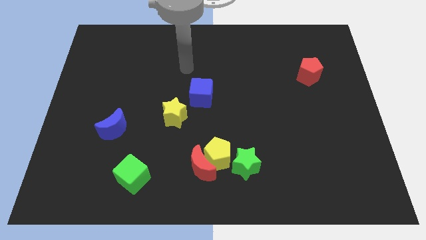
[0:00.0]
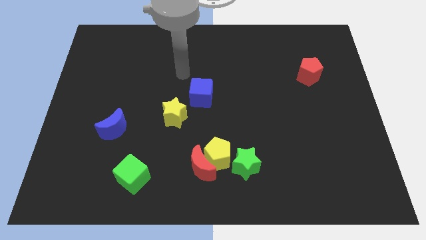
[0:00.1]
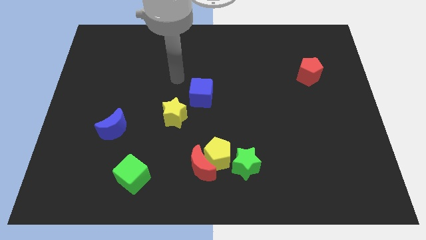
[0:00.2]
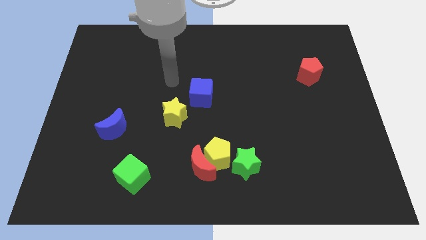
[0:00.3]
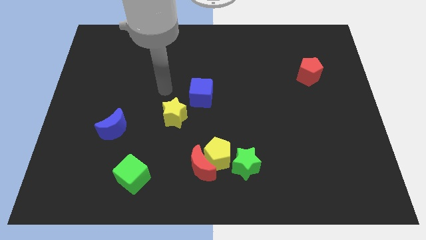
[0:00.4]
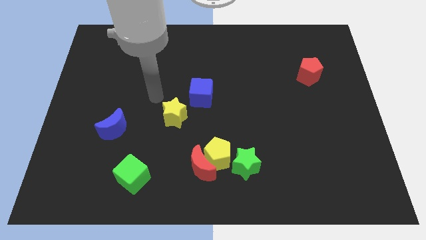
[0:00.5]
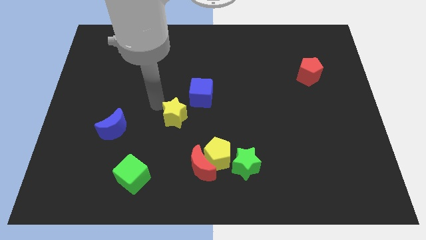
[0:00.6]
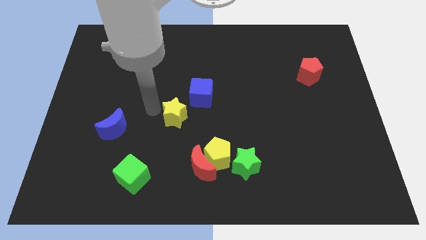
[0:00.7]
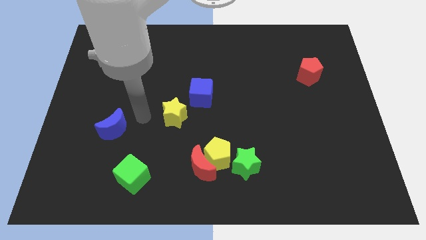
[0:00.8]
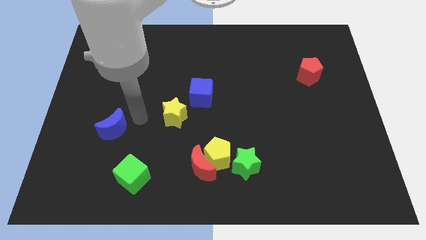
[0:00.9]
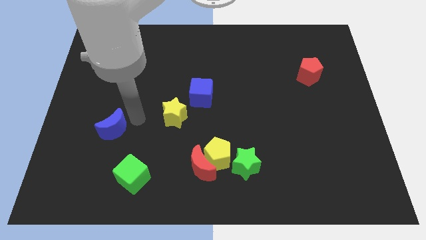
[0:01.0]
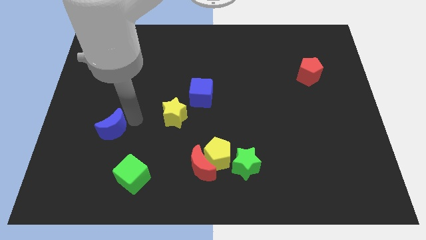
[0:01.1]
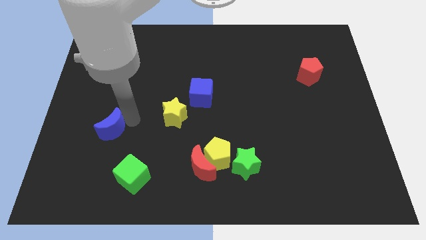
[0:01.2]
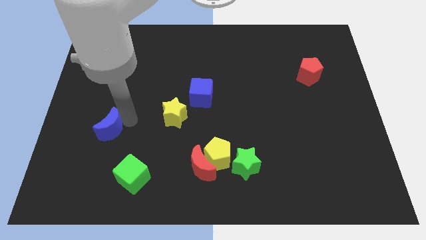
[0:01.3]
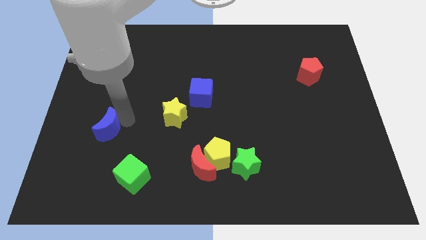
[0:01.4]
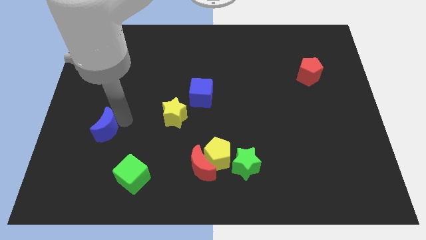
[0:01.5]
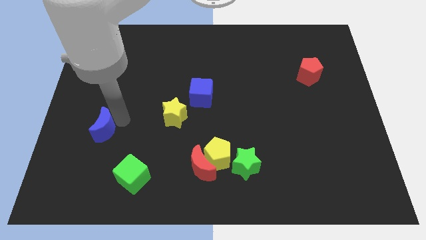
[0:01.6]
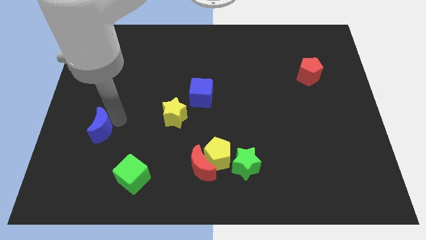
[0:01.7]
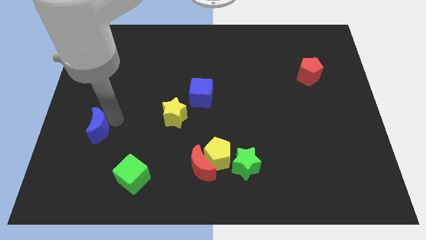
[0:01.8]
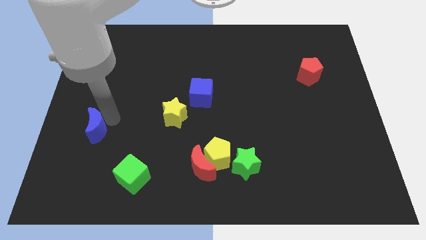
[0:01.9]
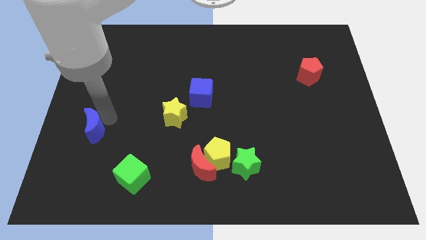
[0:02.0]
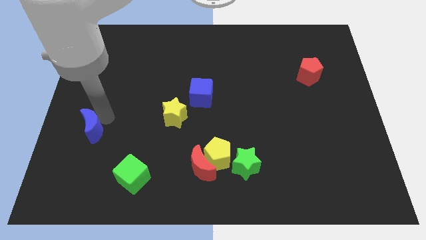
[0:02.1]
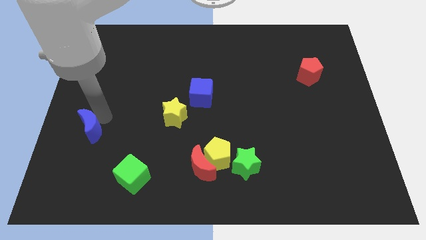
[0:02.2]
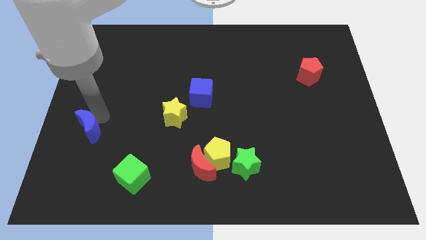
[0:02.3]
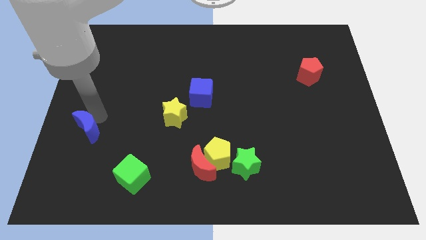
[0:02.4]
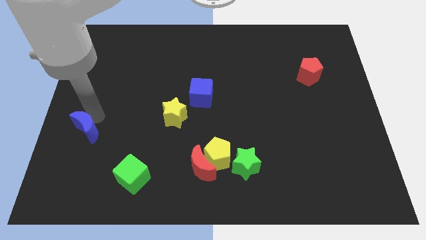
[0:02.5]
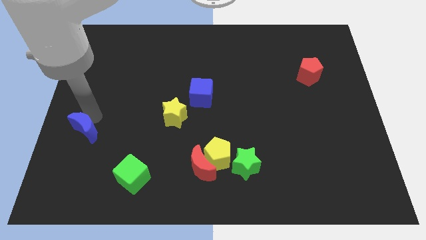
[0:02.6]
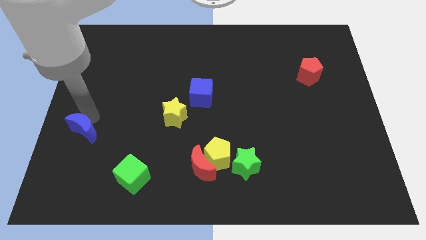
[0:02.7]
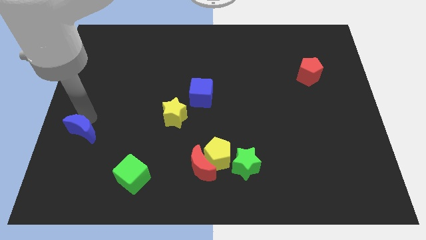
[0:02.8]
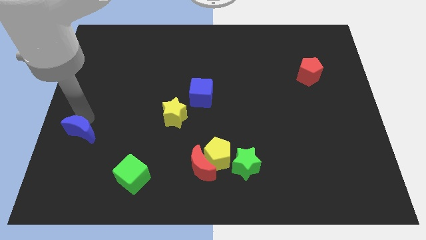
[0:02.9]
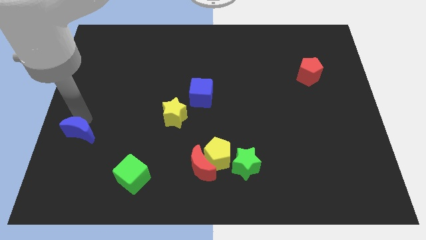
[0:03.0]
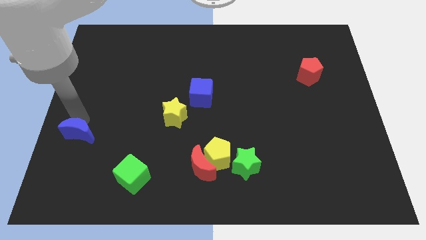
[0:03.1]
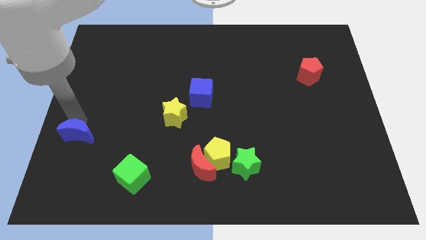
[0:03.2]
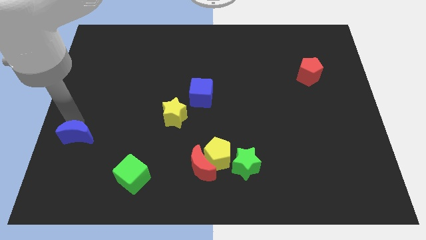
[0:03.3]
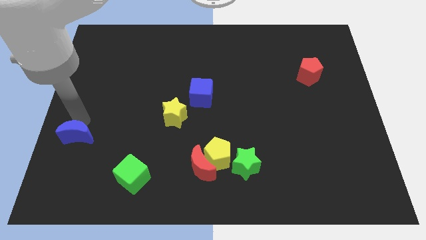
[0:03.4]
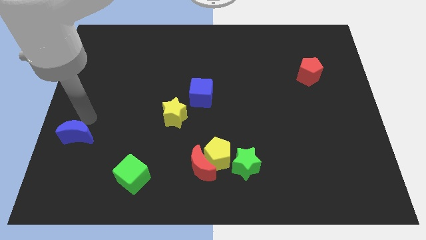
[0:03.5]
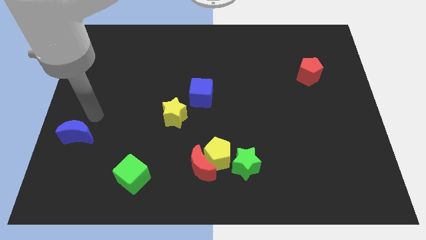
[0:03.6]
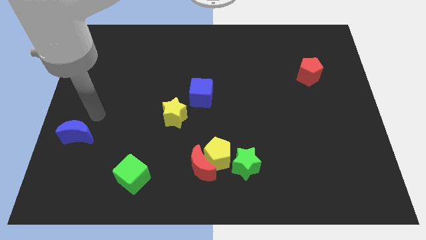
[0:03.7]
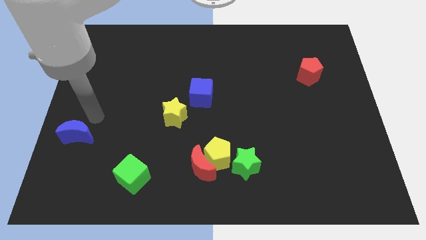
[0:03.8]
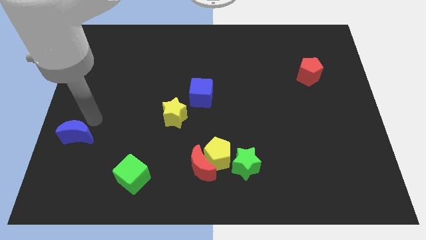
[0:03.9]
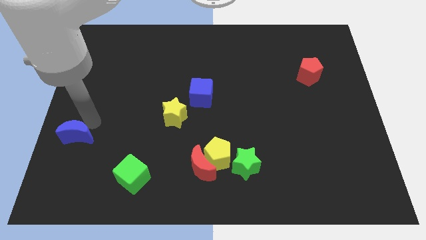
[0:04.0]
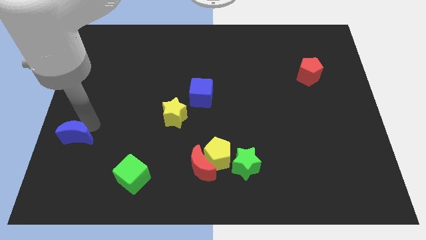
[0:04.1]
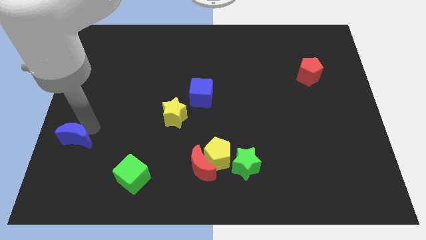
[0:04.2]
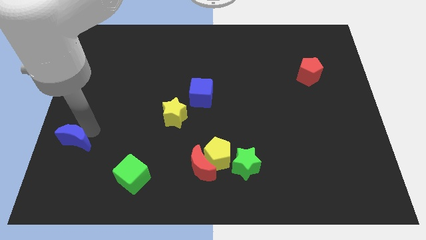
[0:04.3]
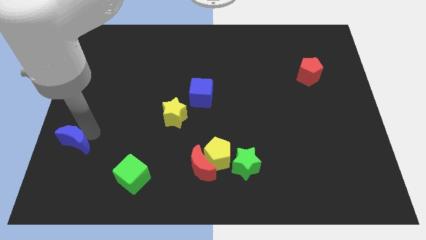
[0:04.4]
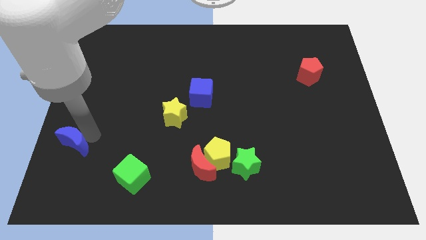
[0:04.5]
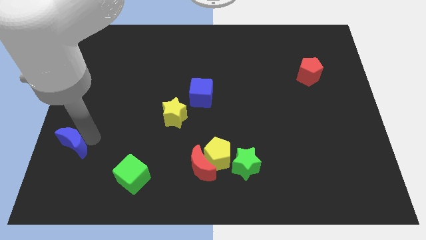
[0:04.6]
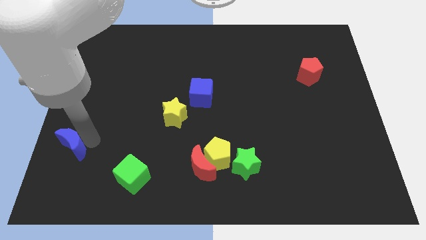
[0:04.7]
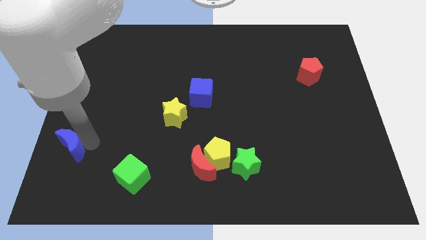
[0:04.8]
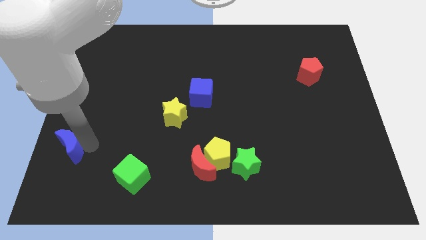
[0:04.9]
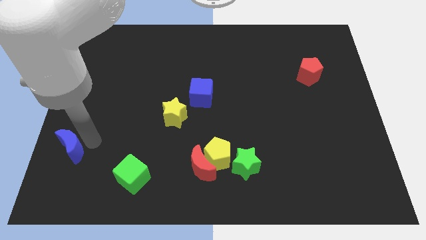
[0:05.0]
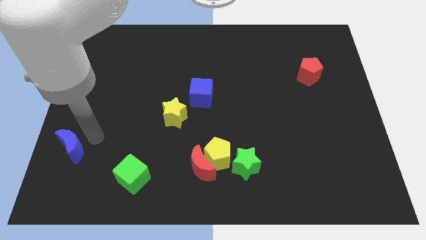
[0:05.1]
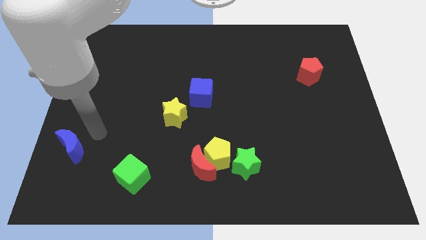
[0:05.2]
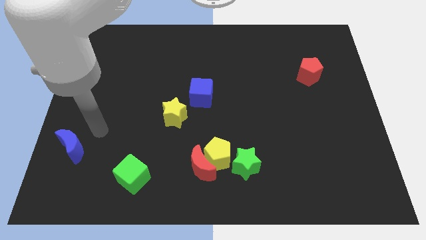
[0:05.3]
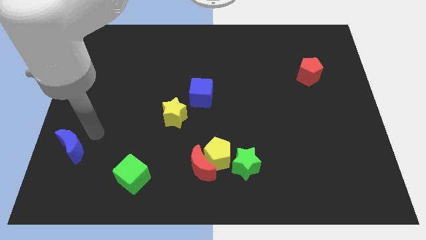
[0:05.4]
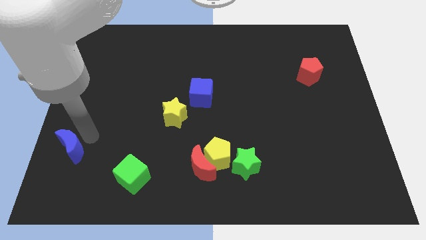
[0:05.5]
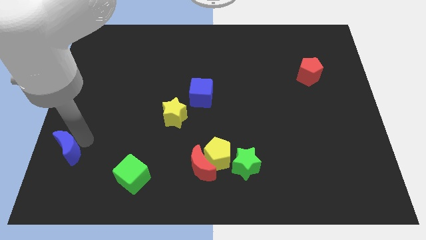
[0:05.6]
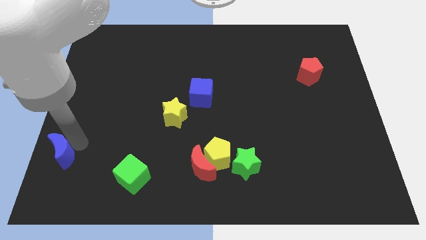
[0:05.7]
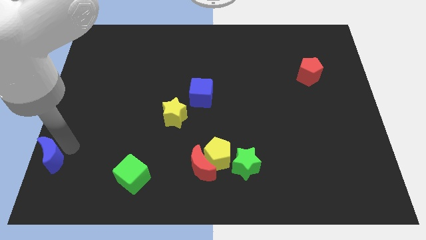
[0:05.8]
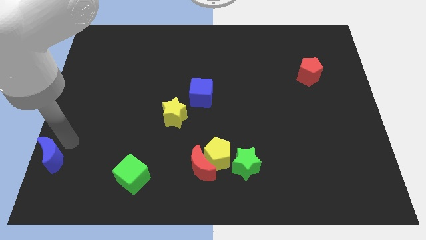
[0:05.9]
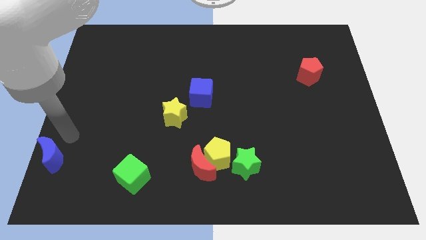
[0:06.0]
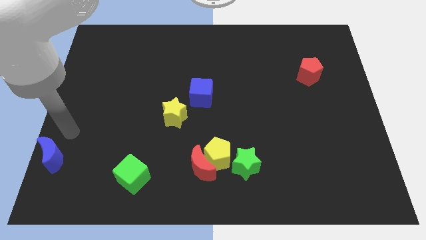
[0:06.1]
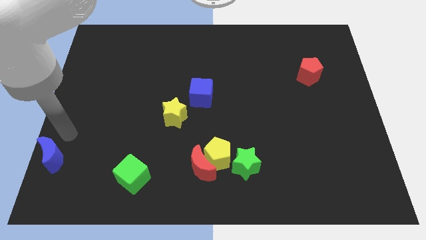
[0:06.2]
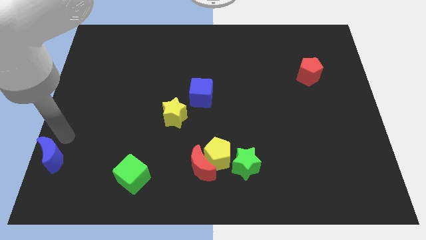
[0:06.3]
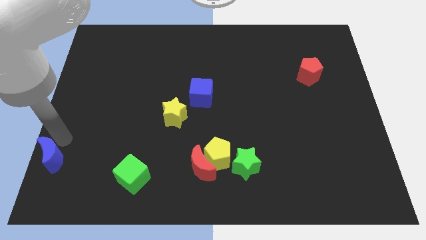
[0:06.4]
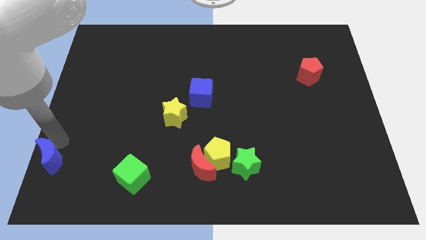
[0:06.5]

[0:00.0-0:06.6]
put the blue moon to the bottom left corner
